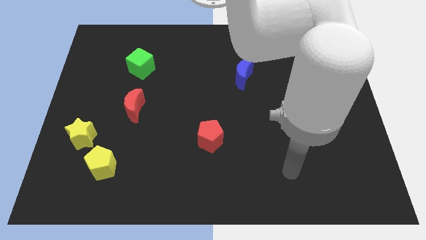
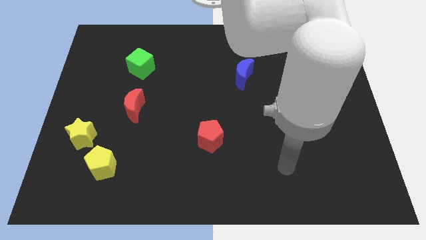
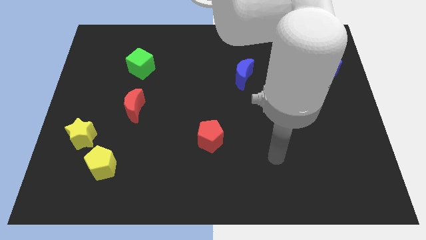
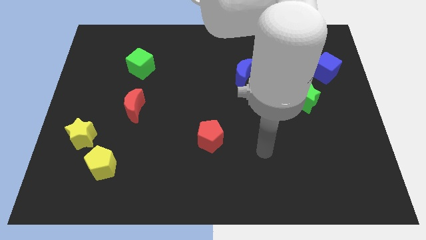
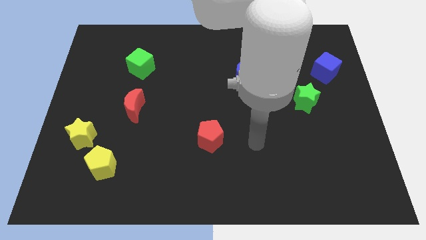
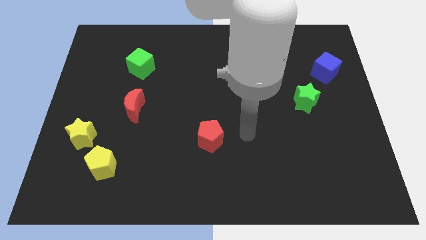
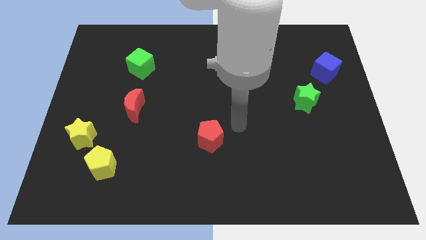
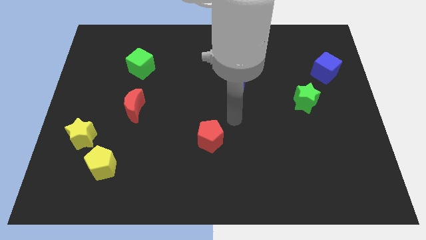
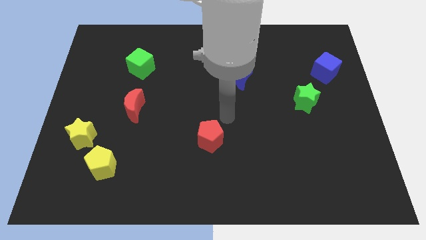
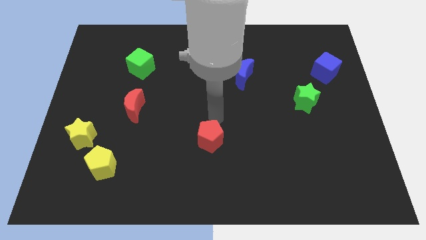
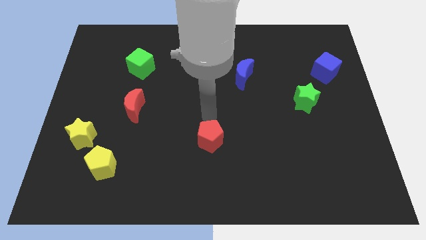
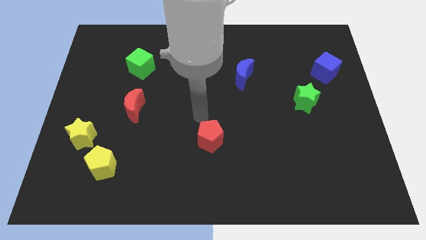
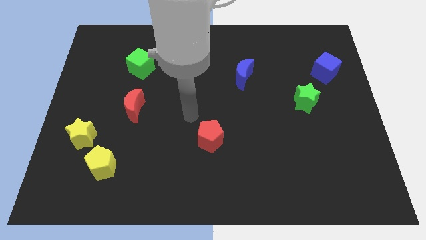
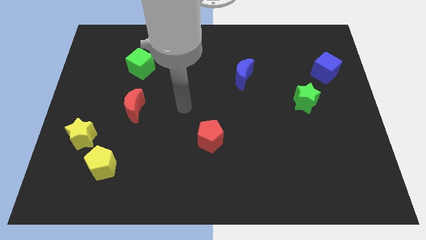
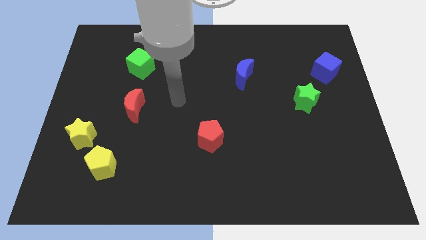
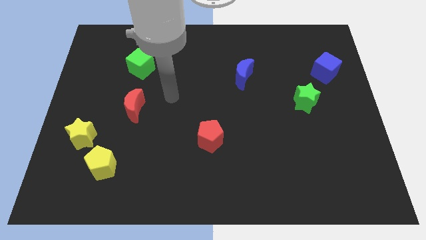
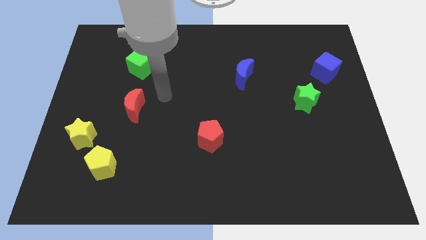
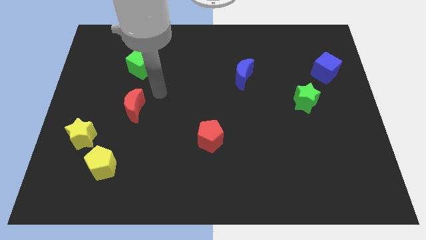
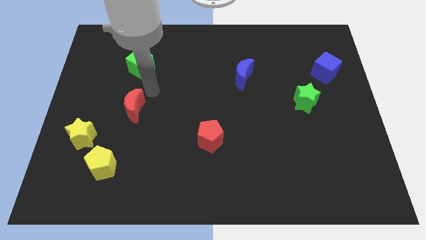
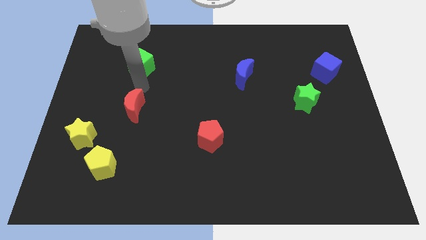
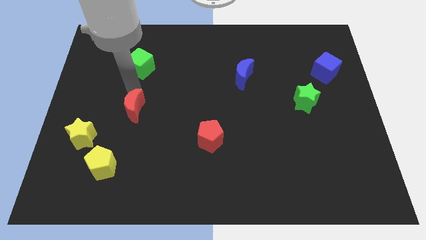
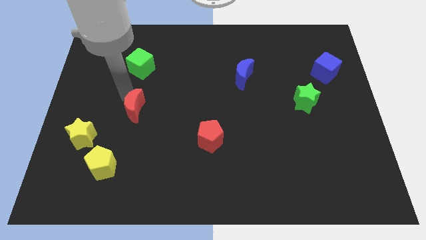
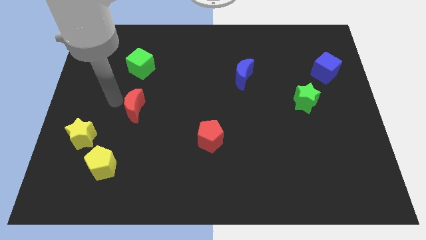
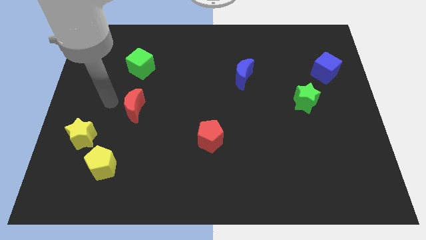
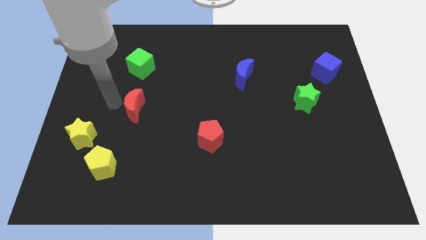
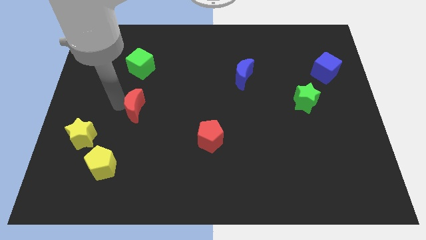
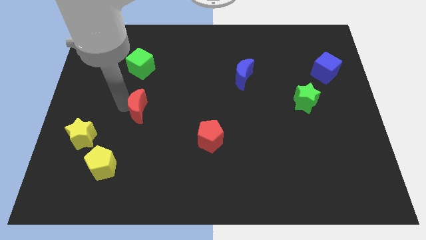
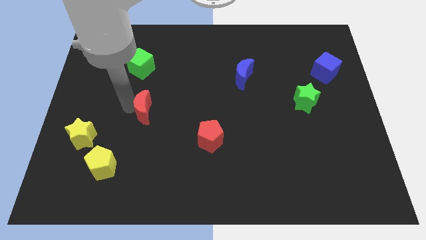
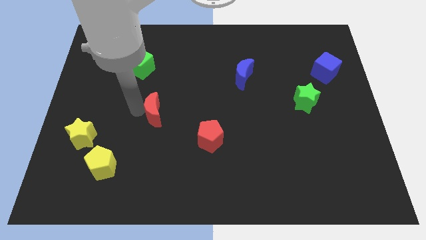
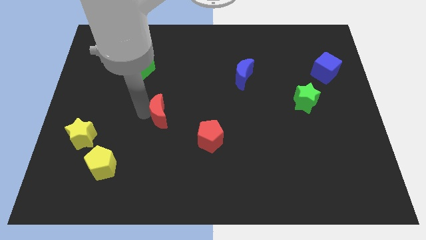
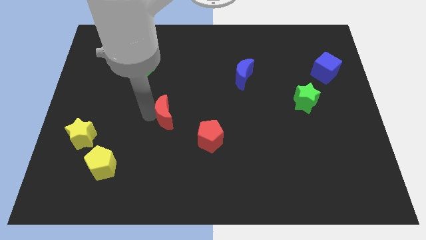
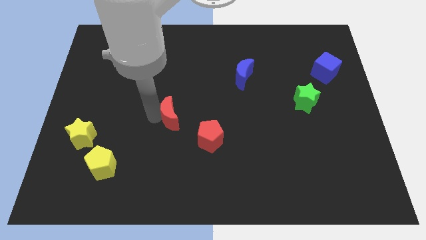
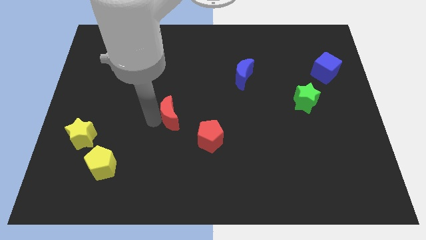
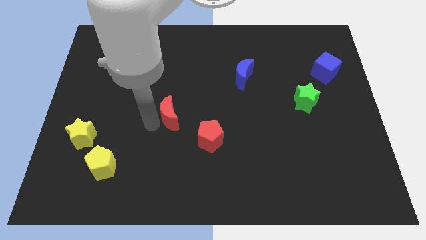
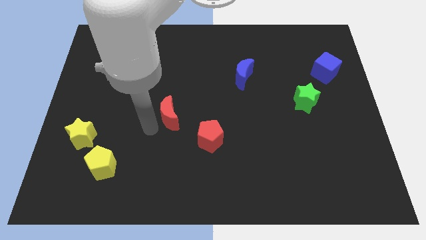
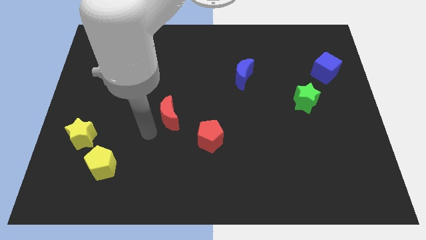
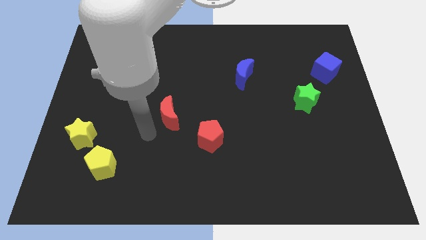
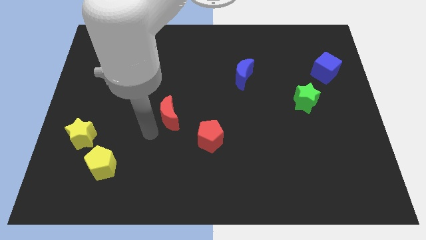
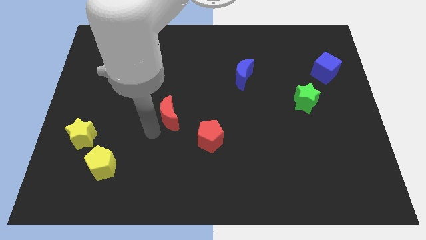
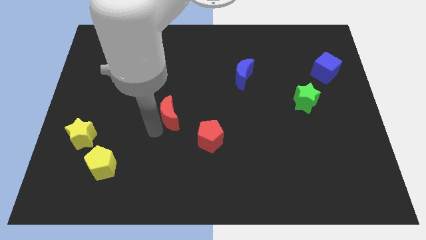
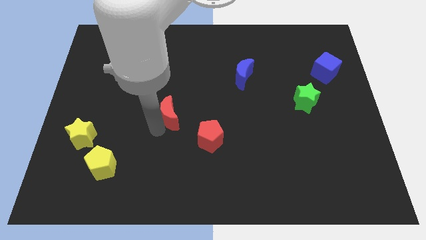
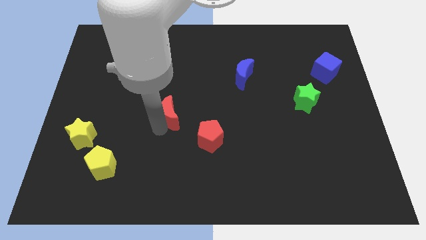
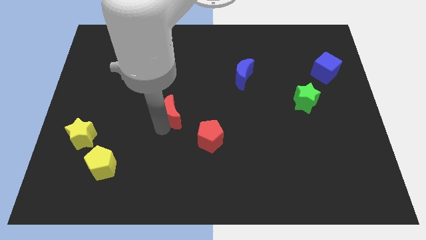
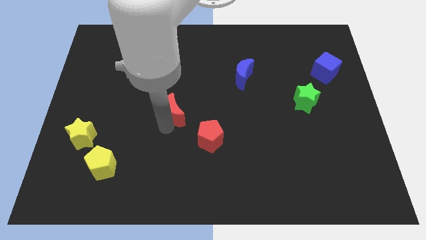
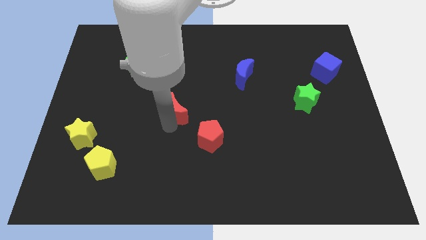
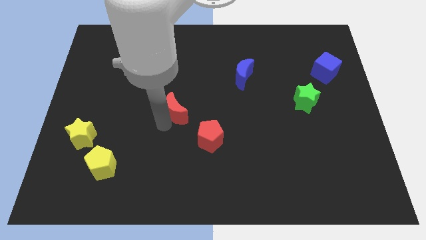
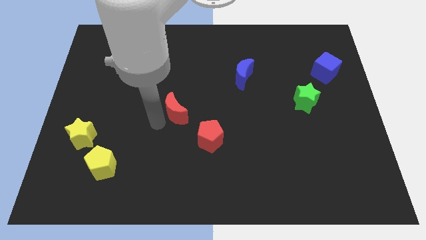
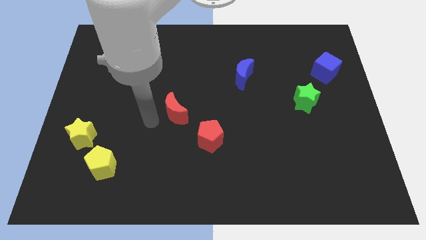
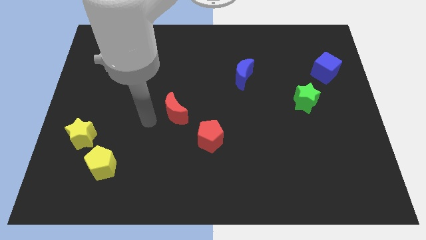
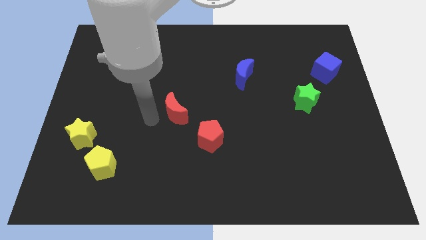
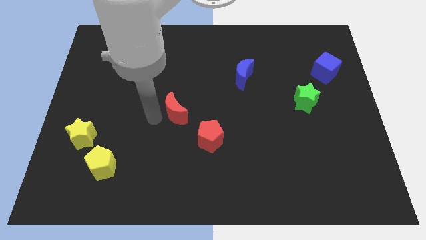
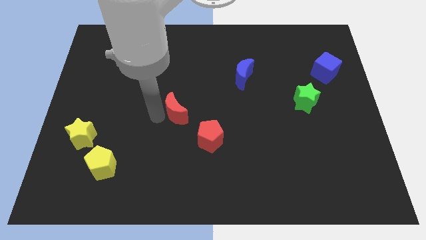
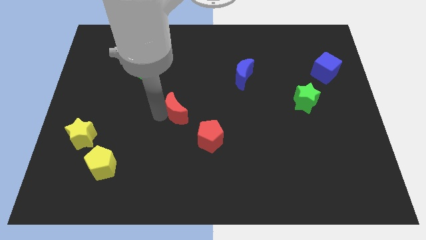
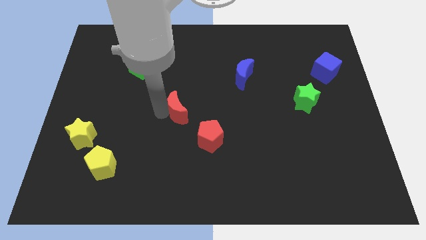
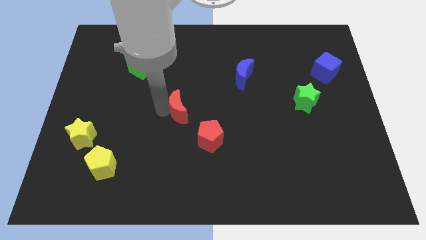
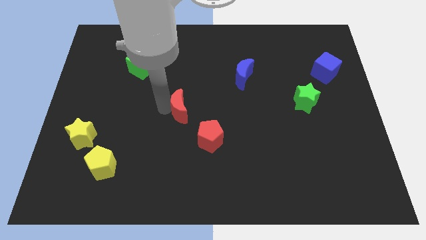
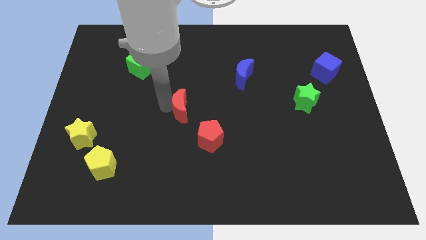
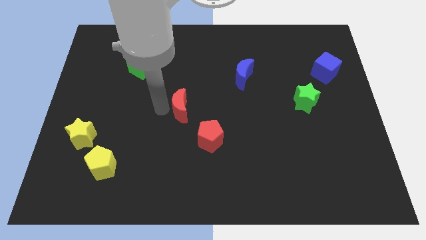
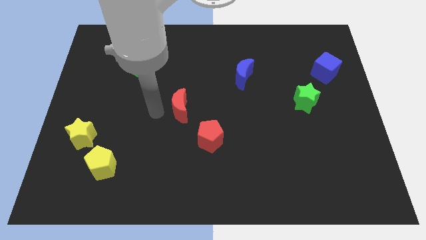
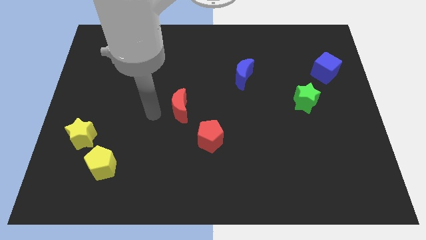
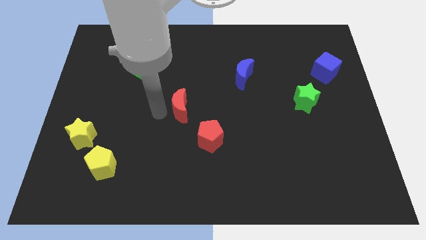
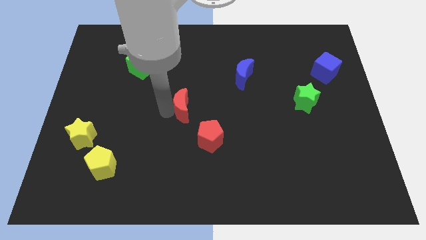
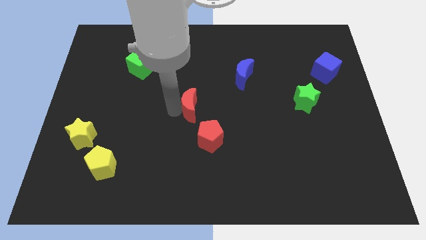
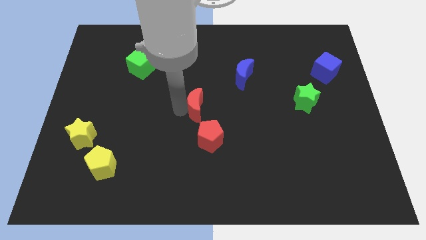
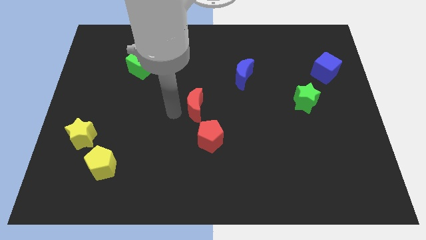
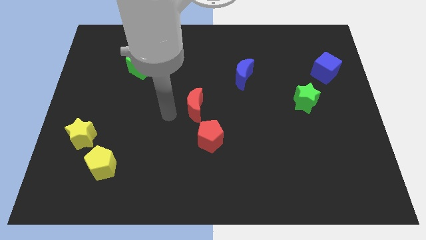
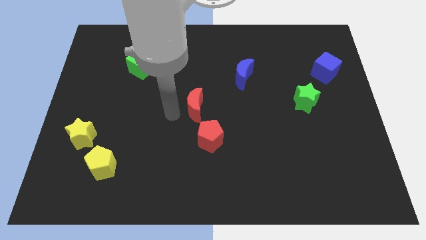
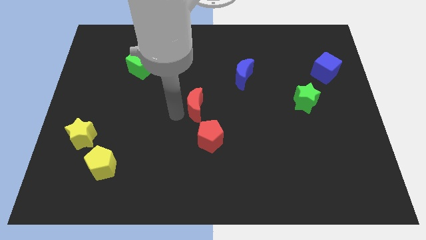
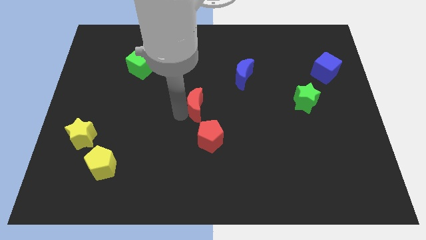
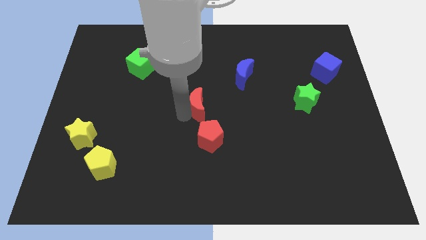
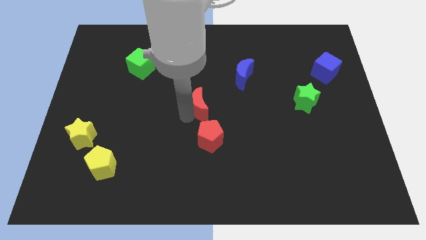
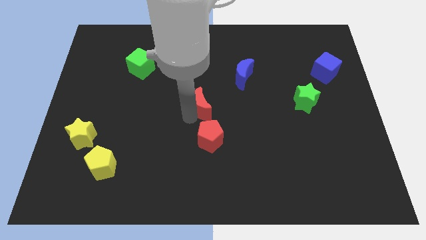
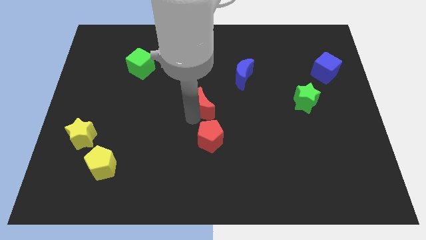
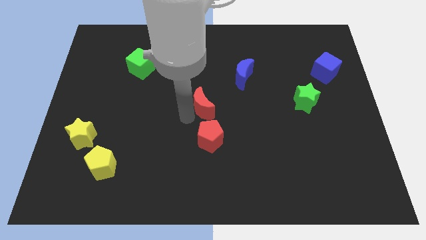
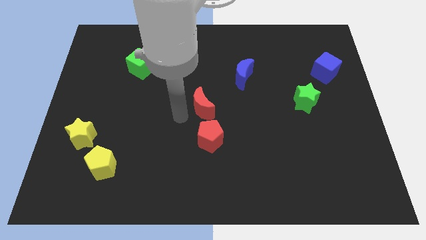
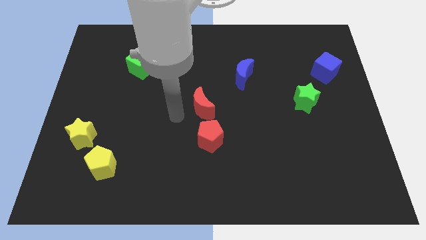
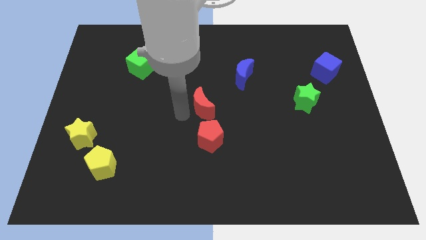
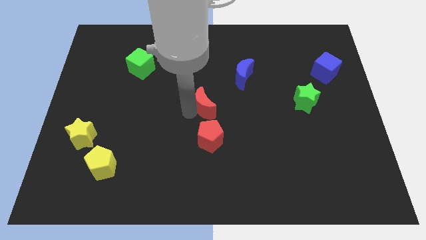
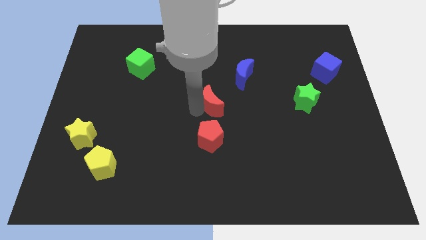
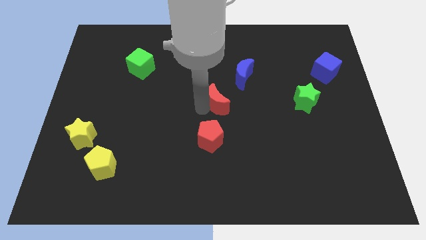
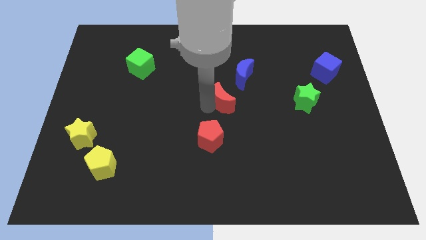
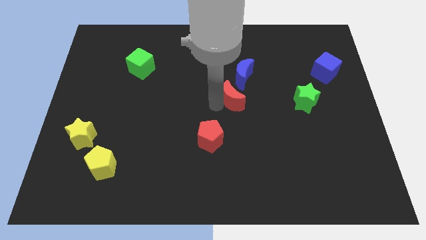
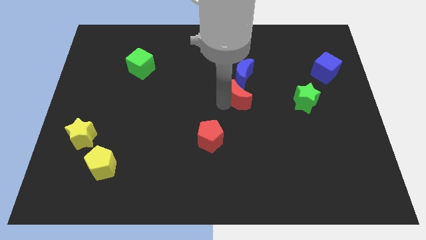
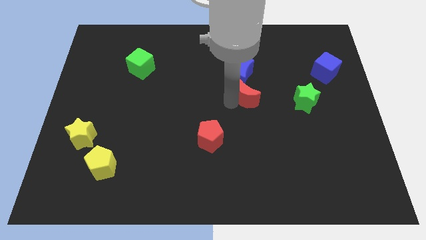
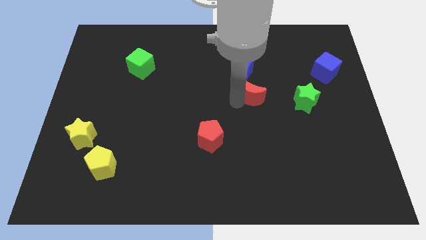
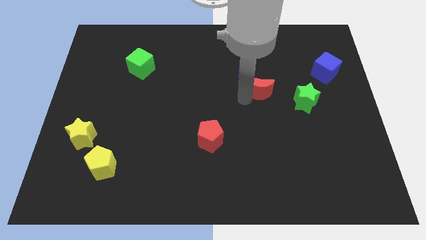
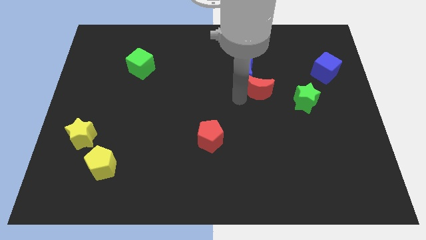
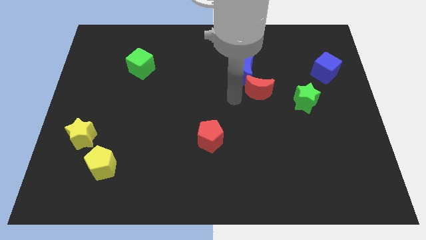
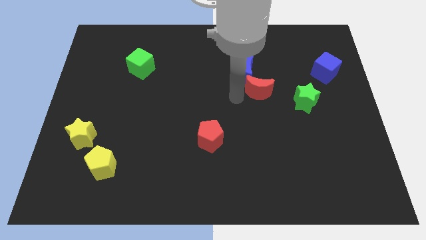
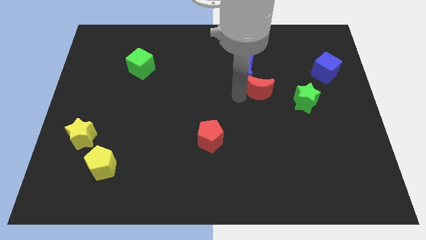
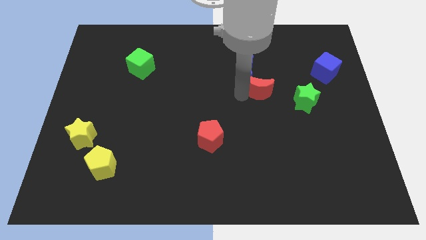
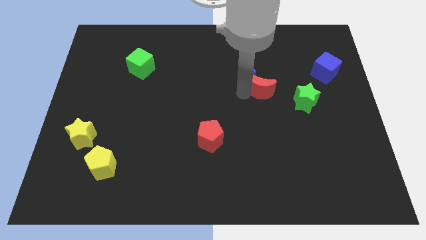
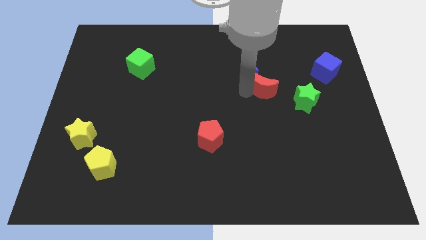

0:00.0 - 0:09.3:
move the red moon diagonally up and to the left of the green star
